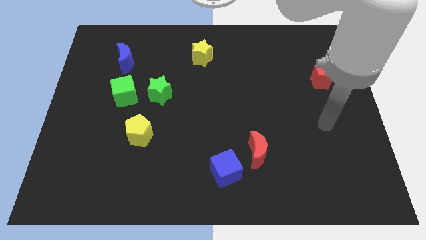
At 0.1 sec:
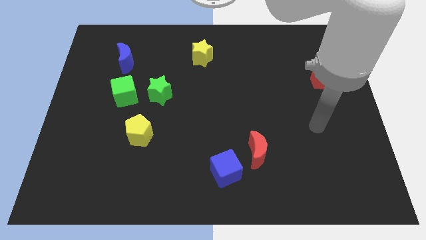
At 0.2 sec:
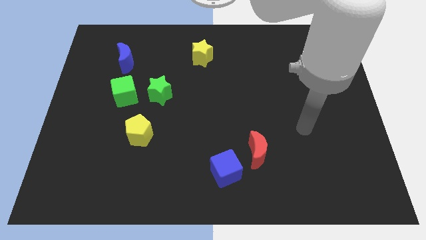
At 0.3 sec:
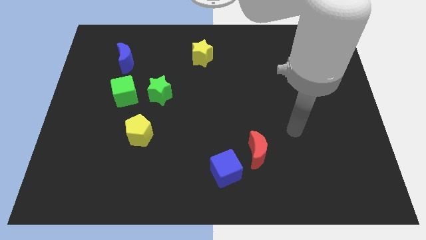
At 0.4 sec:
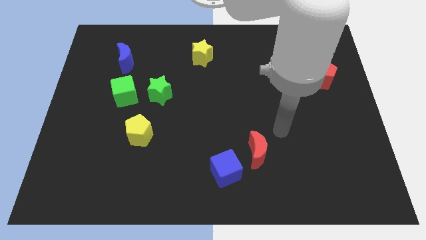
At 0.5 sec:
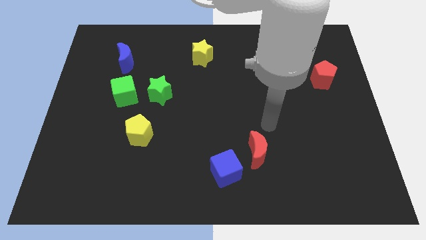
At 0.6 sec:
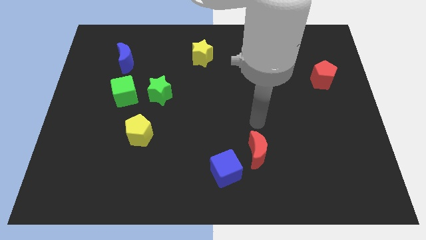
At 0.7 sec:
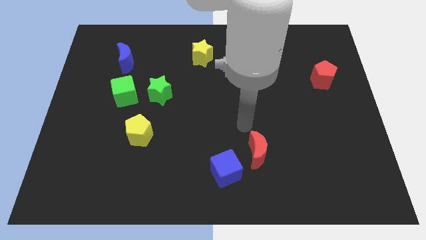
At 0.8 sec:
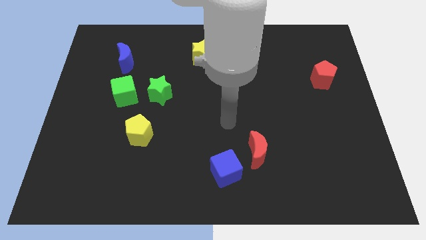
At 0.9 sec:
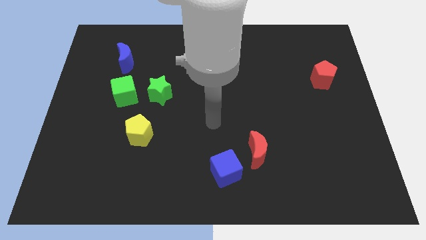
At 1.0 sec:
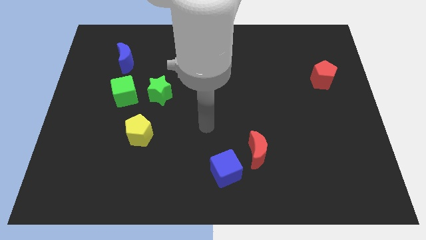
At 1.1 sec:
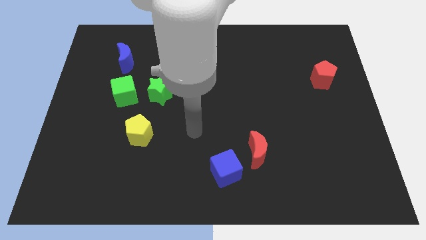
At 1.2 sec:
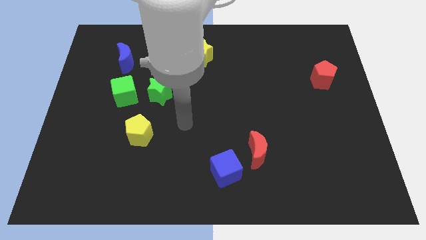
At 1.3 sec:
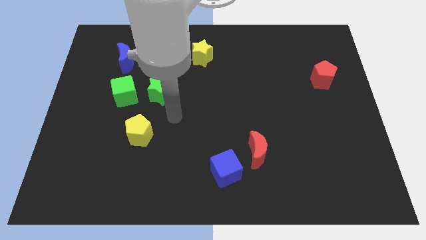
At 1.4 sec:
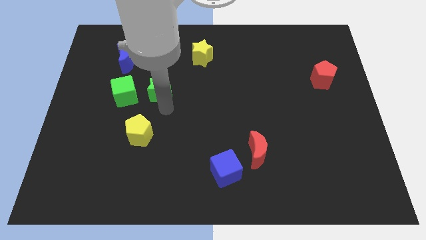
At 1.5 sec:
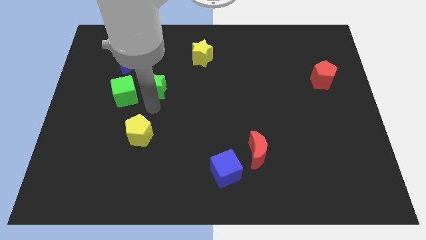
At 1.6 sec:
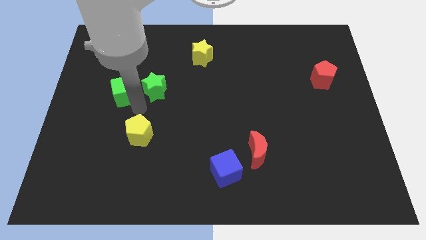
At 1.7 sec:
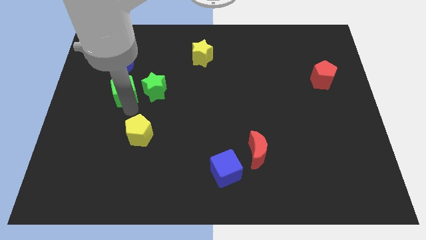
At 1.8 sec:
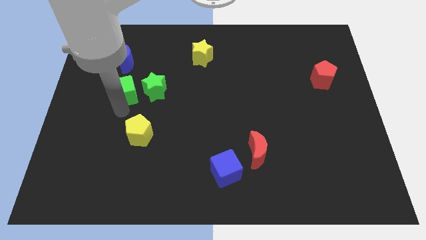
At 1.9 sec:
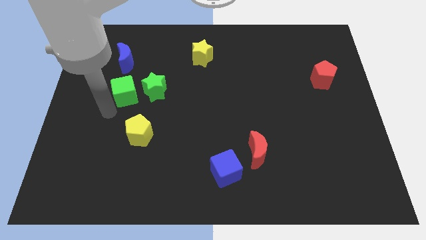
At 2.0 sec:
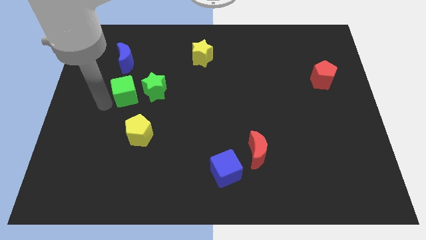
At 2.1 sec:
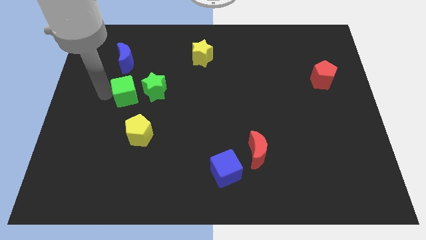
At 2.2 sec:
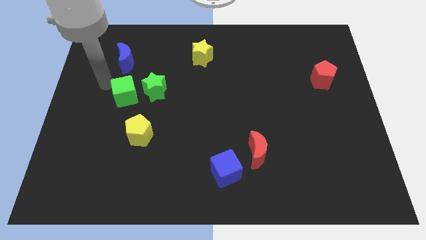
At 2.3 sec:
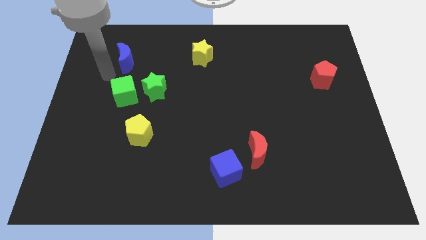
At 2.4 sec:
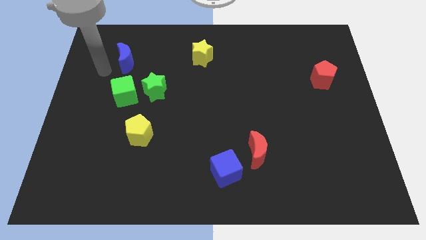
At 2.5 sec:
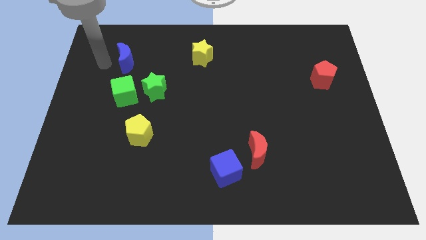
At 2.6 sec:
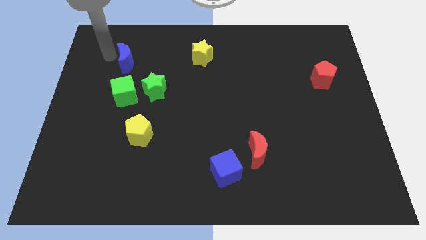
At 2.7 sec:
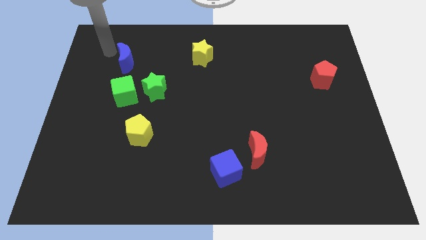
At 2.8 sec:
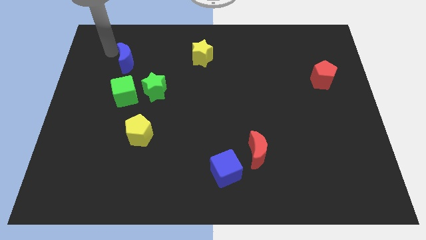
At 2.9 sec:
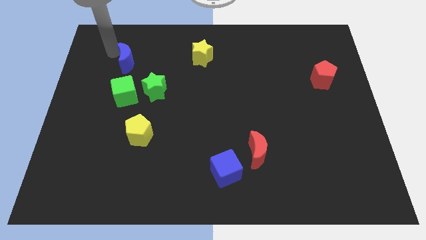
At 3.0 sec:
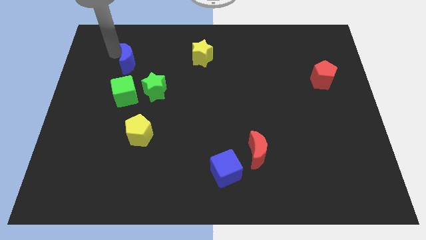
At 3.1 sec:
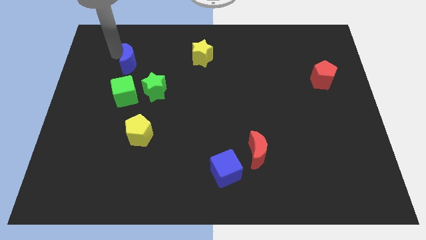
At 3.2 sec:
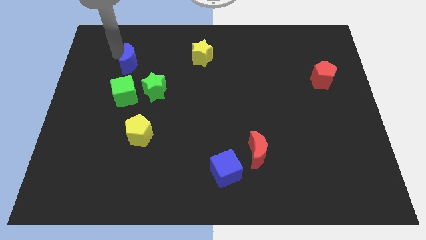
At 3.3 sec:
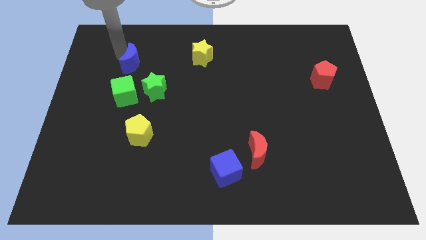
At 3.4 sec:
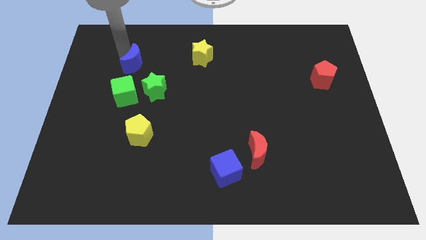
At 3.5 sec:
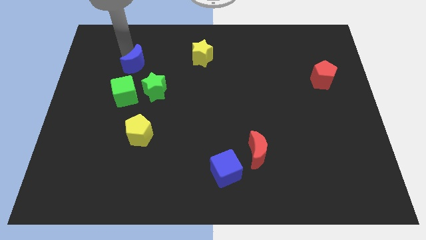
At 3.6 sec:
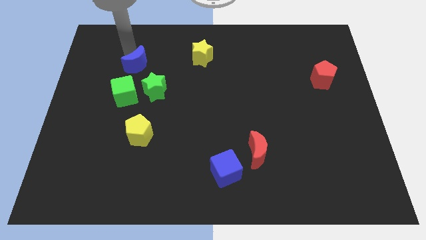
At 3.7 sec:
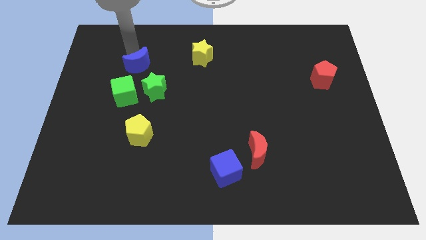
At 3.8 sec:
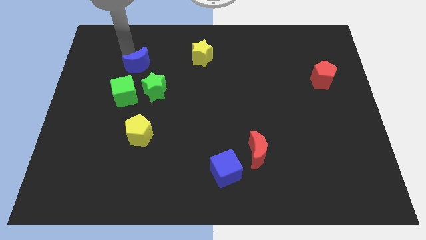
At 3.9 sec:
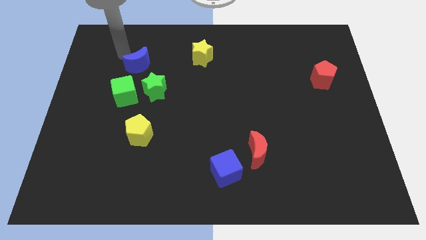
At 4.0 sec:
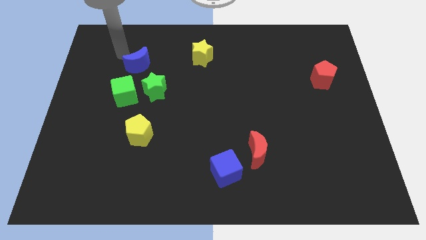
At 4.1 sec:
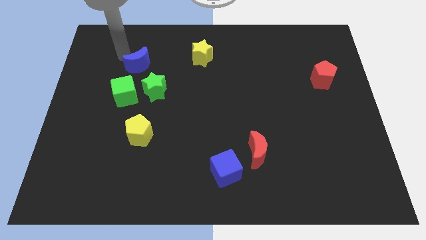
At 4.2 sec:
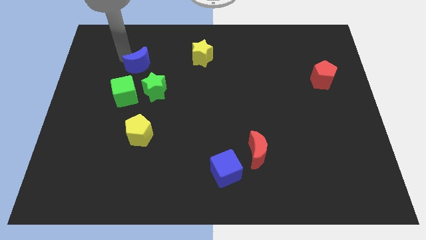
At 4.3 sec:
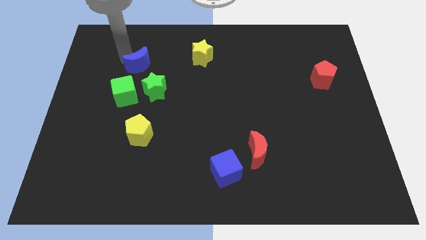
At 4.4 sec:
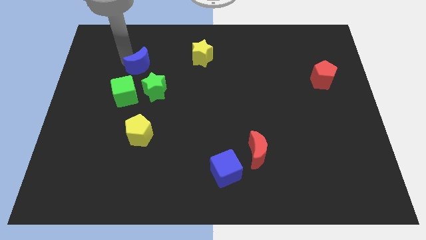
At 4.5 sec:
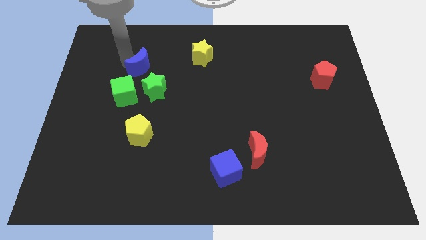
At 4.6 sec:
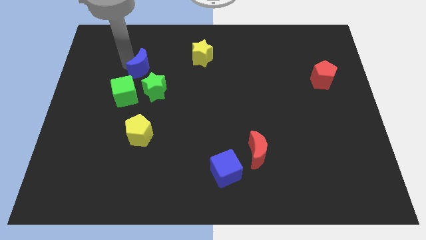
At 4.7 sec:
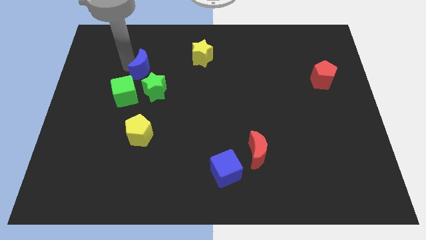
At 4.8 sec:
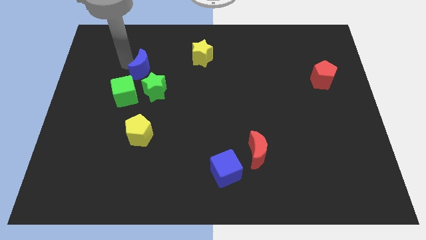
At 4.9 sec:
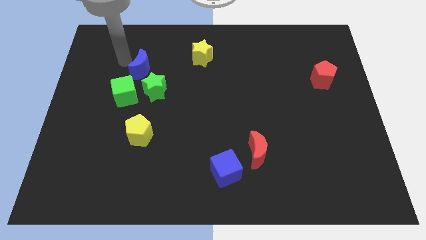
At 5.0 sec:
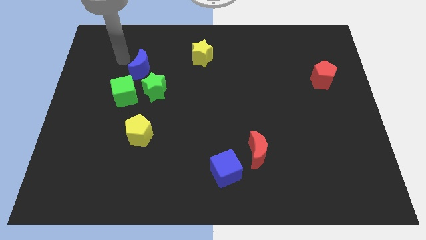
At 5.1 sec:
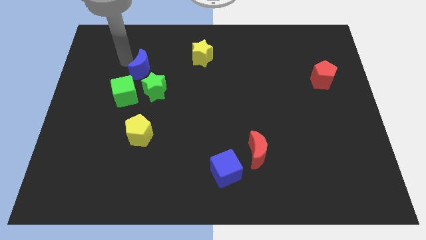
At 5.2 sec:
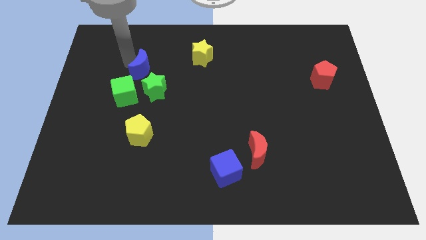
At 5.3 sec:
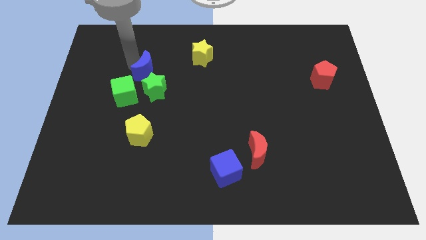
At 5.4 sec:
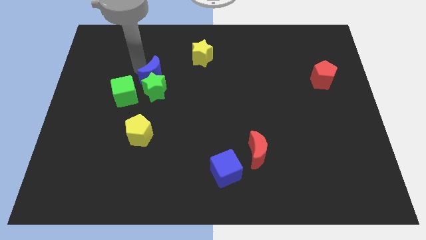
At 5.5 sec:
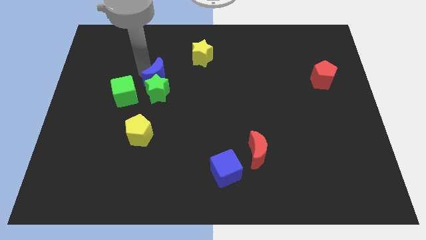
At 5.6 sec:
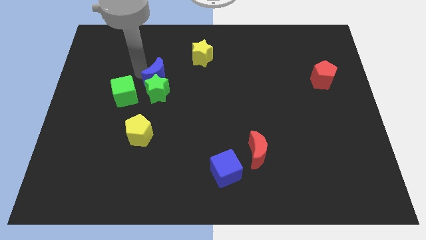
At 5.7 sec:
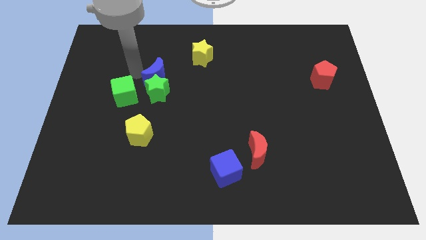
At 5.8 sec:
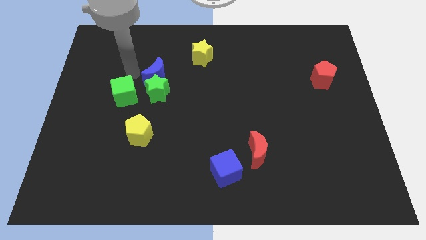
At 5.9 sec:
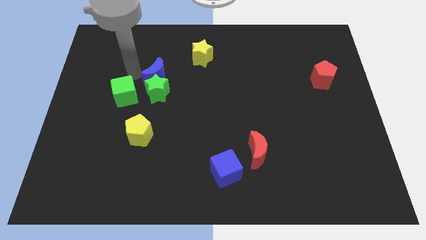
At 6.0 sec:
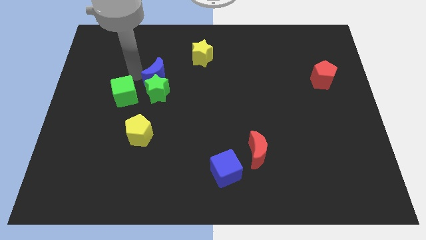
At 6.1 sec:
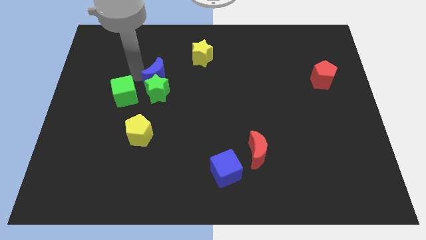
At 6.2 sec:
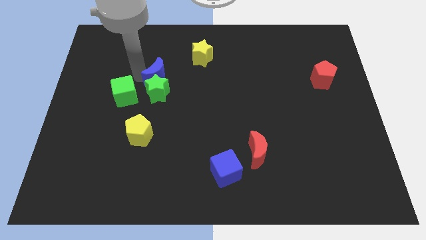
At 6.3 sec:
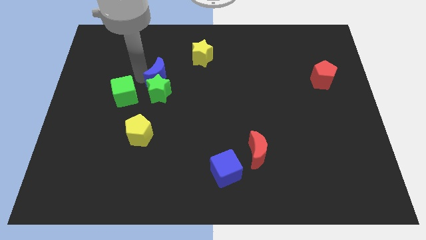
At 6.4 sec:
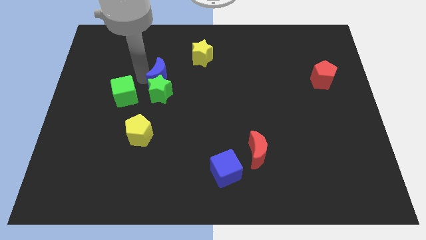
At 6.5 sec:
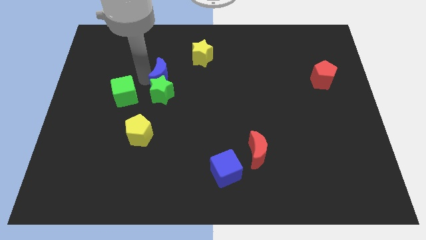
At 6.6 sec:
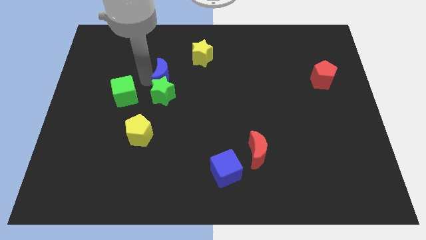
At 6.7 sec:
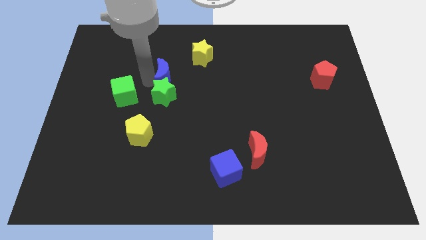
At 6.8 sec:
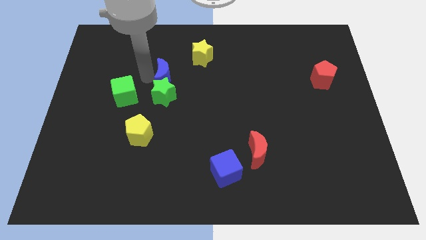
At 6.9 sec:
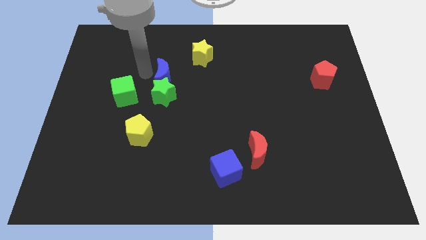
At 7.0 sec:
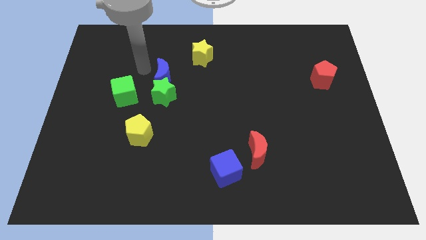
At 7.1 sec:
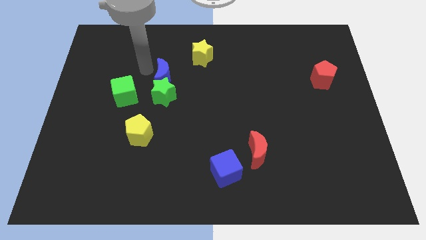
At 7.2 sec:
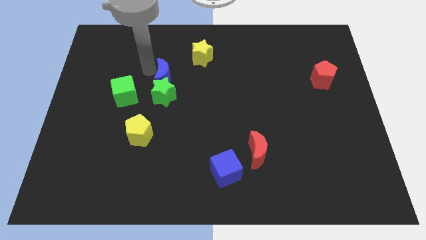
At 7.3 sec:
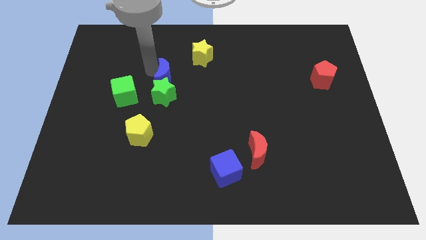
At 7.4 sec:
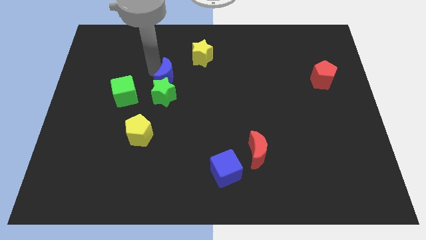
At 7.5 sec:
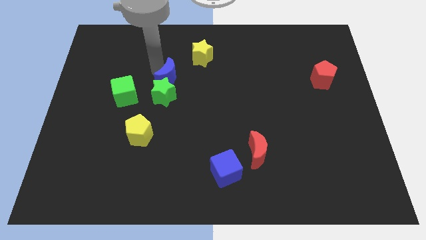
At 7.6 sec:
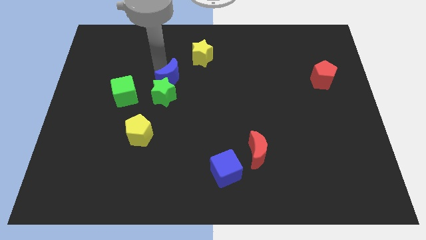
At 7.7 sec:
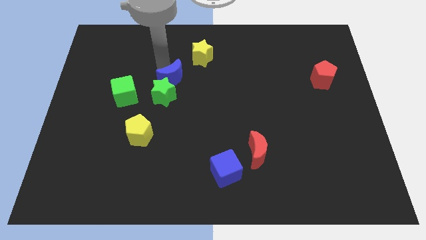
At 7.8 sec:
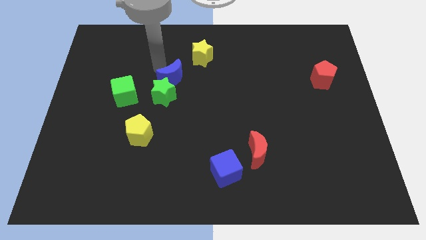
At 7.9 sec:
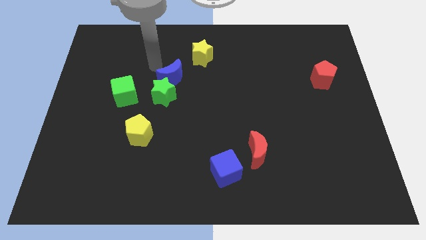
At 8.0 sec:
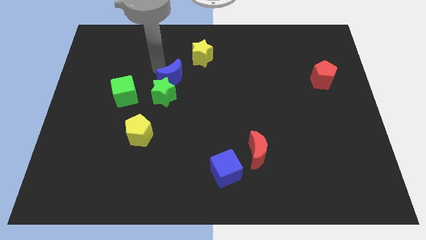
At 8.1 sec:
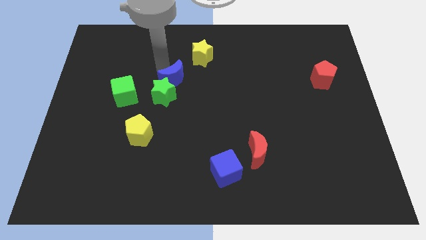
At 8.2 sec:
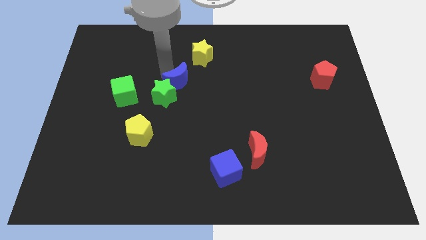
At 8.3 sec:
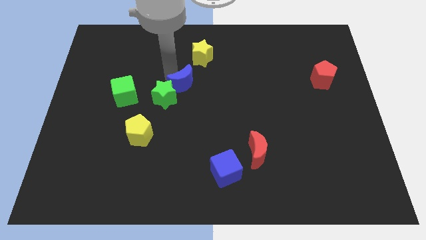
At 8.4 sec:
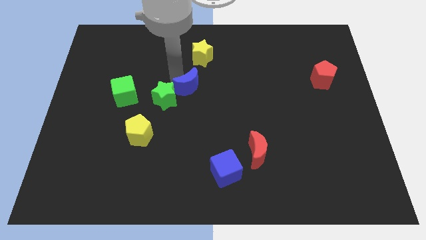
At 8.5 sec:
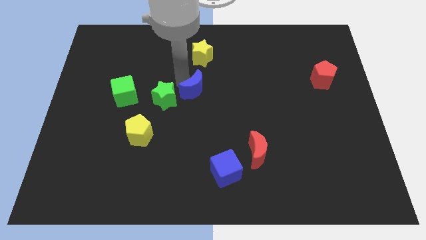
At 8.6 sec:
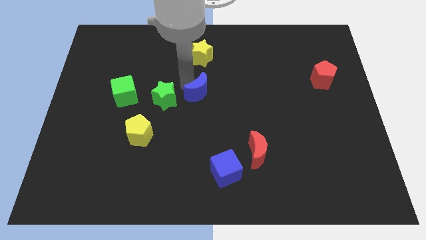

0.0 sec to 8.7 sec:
push the blue moon diagonally down and right
